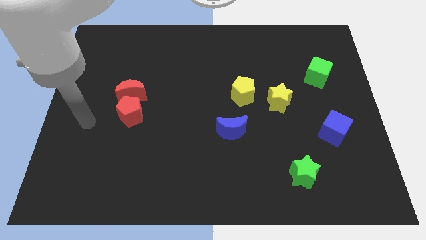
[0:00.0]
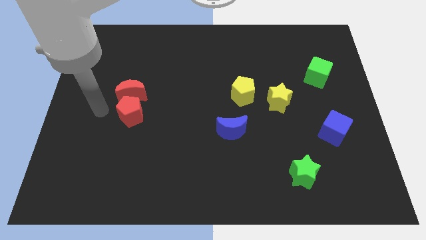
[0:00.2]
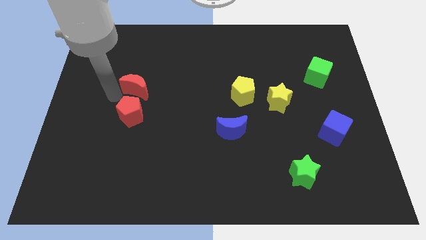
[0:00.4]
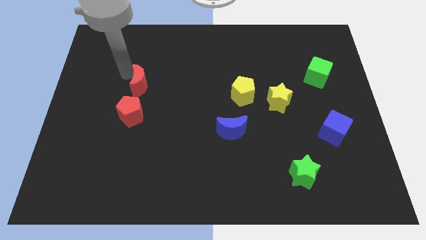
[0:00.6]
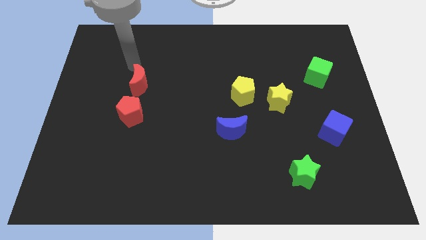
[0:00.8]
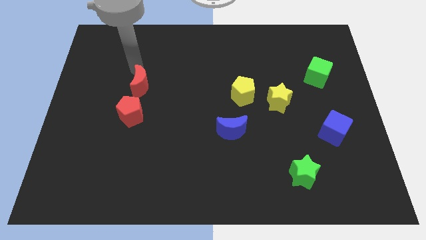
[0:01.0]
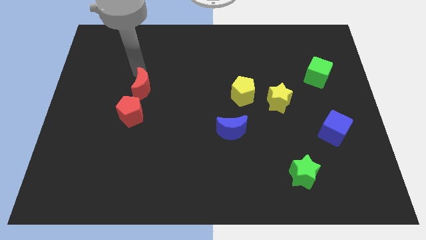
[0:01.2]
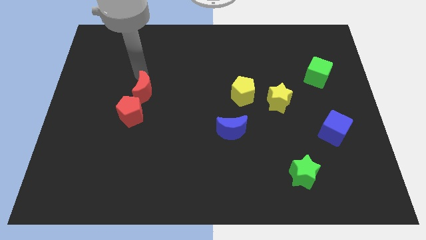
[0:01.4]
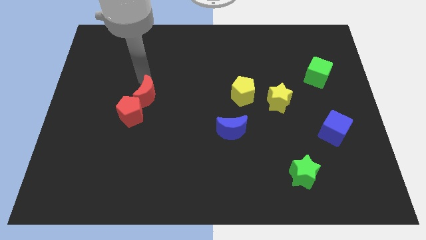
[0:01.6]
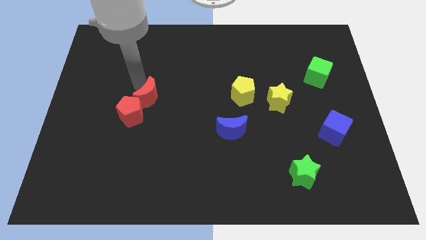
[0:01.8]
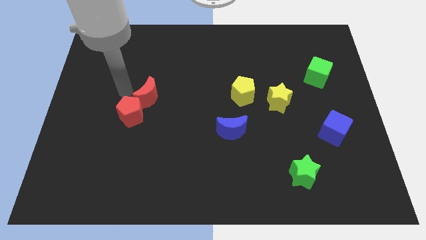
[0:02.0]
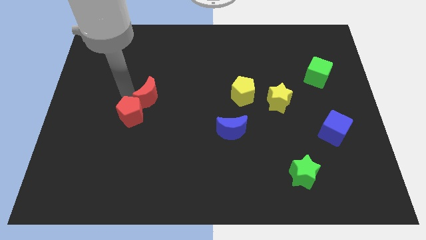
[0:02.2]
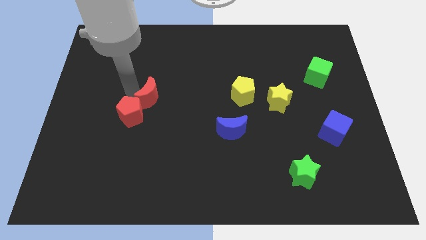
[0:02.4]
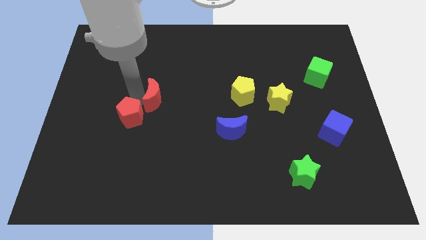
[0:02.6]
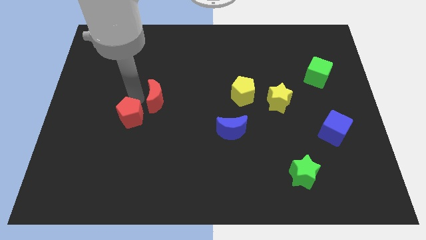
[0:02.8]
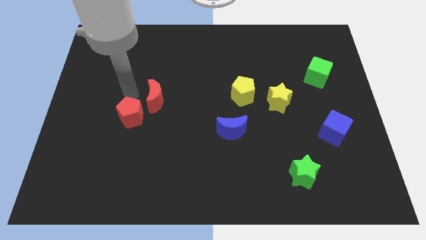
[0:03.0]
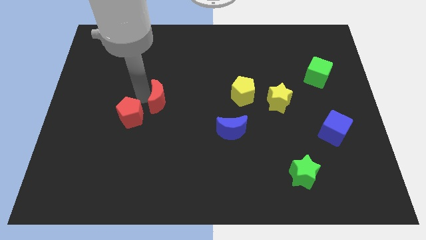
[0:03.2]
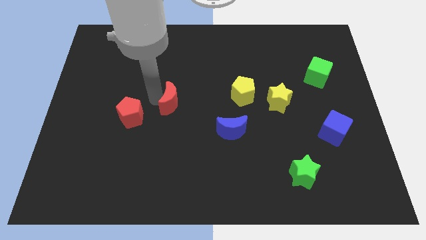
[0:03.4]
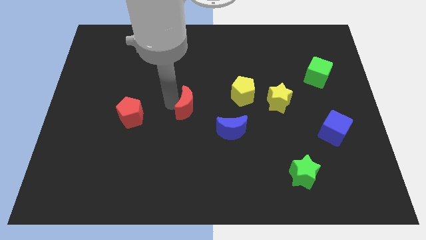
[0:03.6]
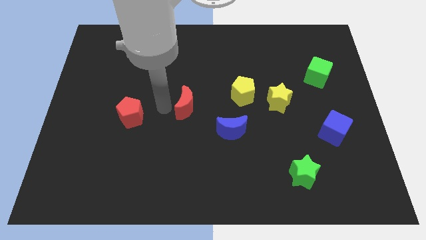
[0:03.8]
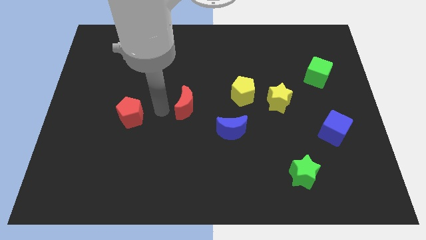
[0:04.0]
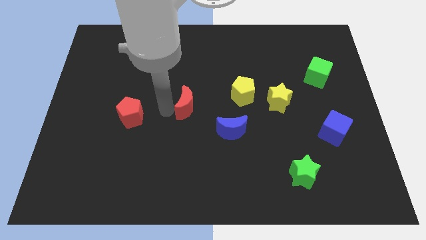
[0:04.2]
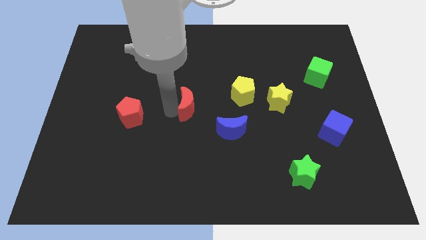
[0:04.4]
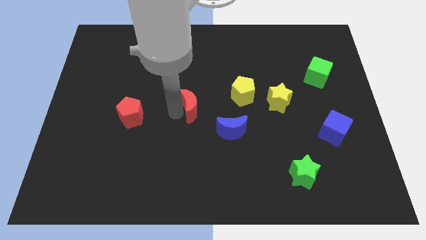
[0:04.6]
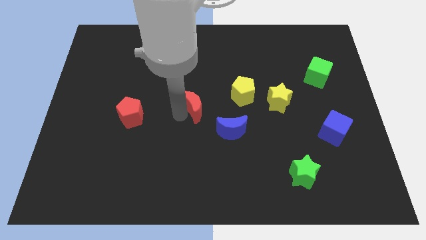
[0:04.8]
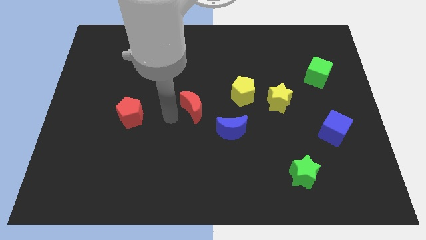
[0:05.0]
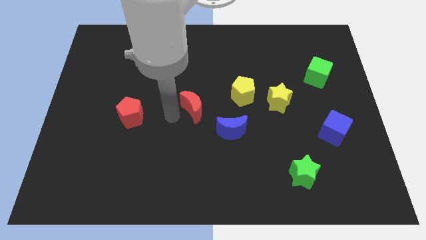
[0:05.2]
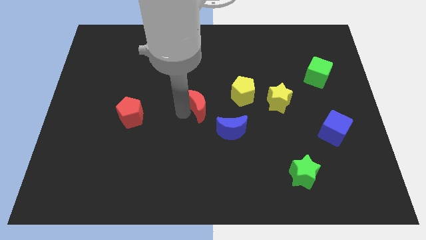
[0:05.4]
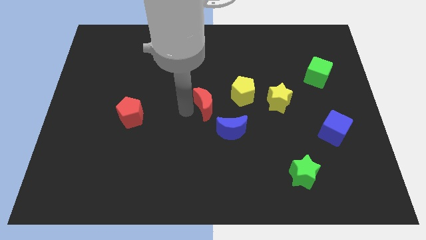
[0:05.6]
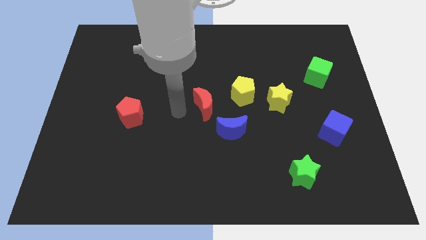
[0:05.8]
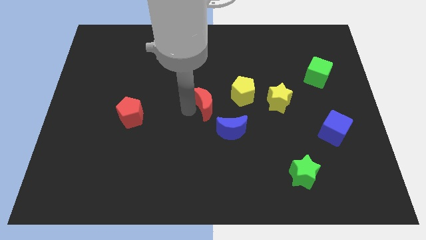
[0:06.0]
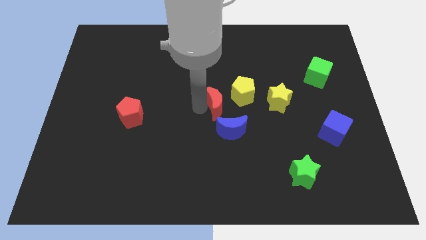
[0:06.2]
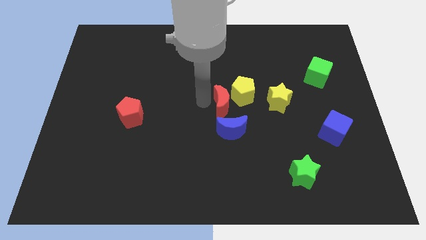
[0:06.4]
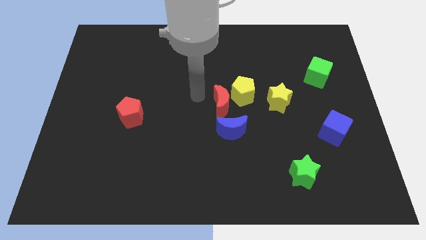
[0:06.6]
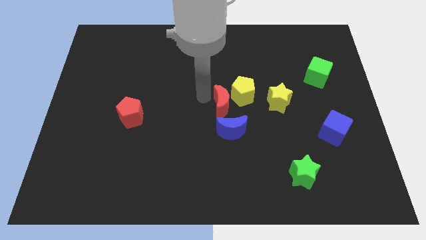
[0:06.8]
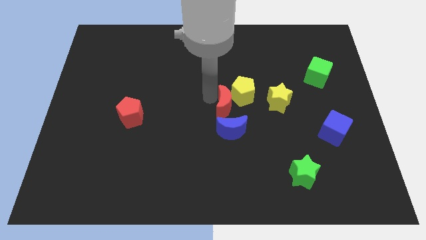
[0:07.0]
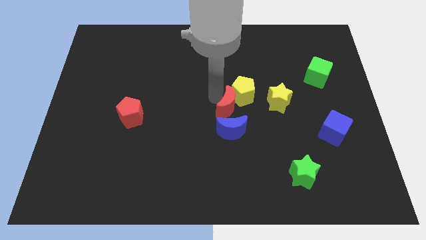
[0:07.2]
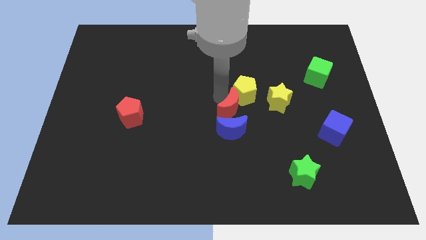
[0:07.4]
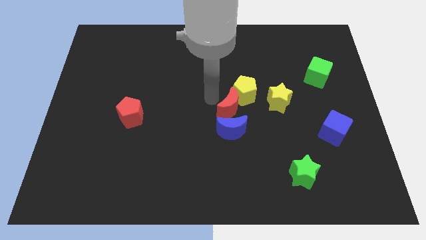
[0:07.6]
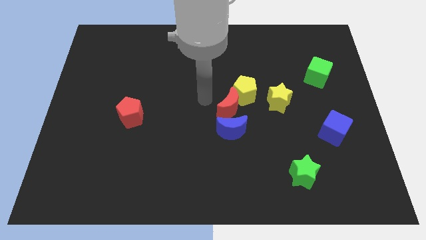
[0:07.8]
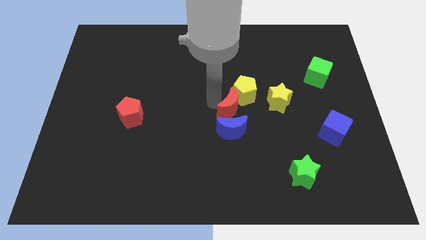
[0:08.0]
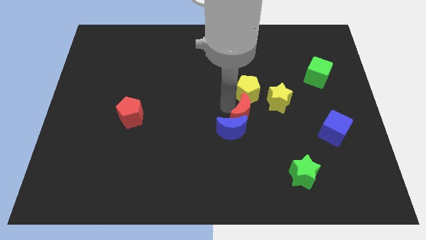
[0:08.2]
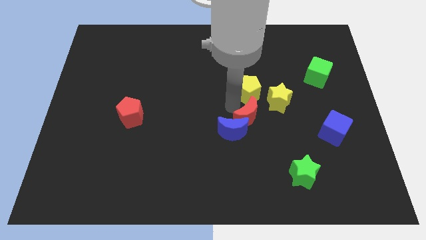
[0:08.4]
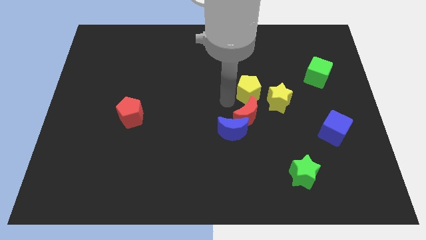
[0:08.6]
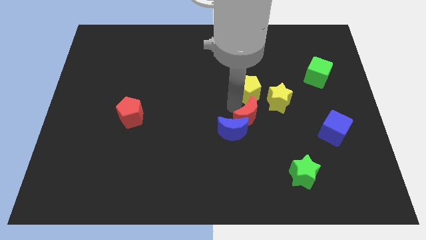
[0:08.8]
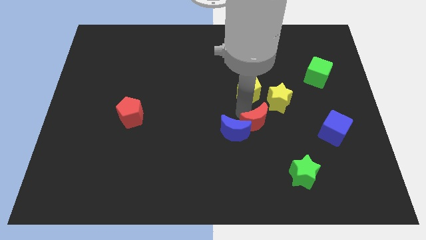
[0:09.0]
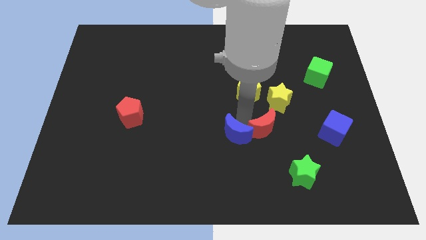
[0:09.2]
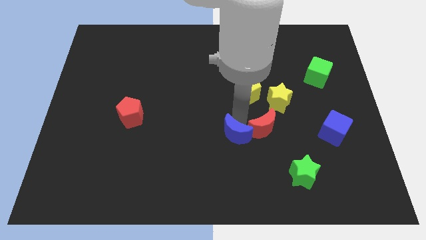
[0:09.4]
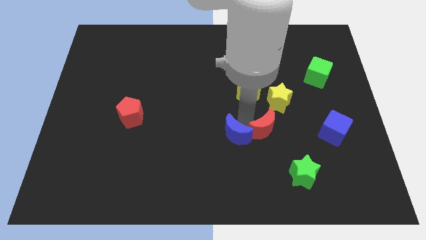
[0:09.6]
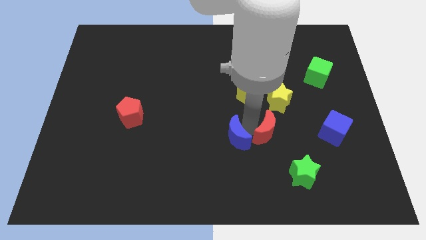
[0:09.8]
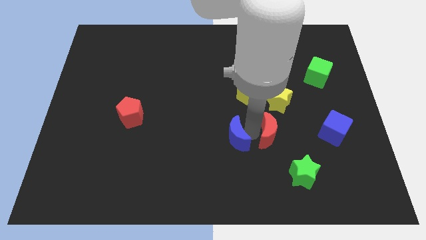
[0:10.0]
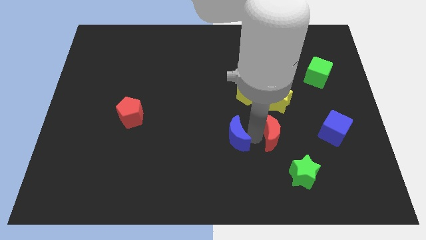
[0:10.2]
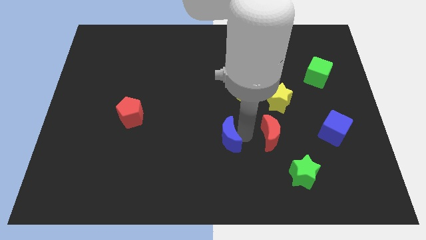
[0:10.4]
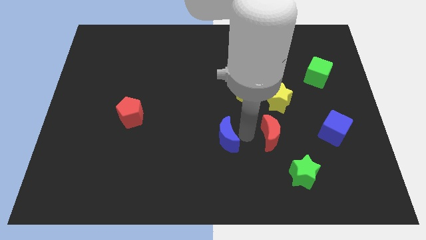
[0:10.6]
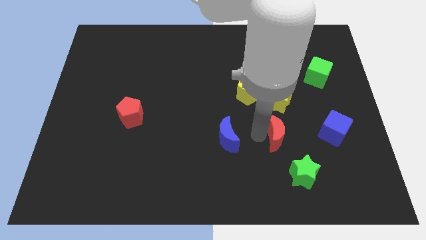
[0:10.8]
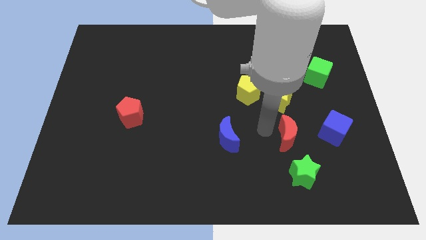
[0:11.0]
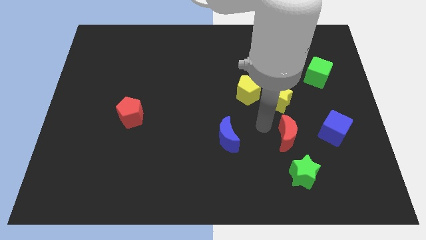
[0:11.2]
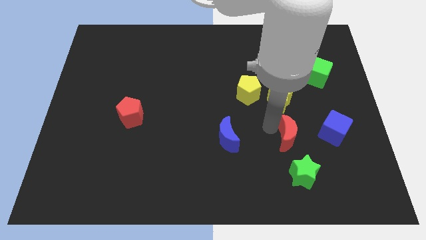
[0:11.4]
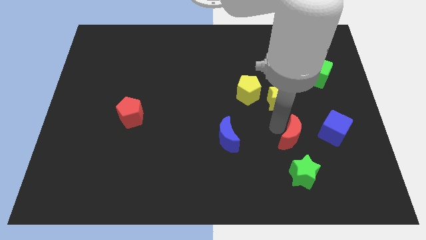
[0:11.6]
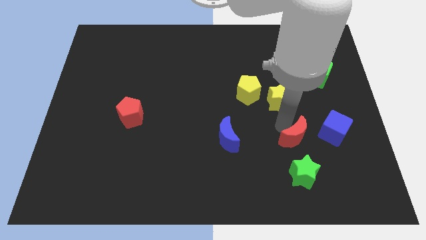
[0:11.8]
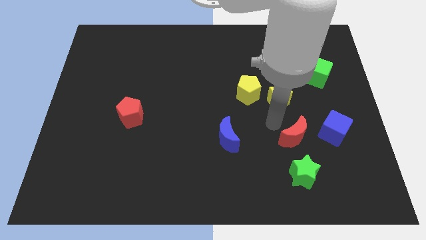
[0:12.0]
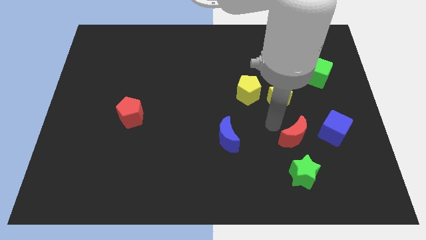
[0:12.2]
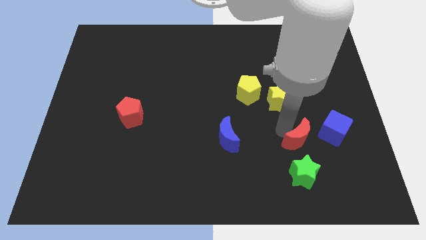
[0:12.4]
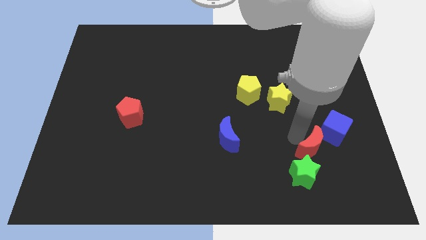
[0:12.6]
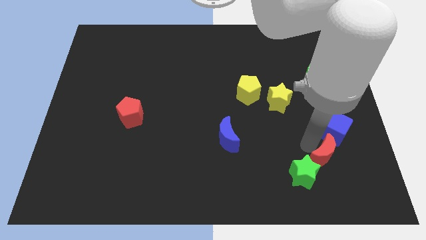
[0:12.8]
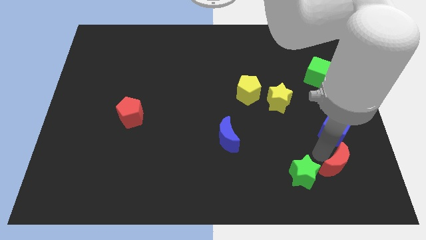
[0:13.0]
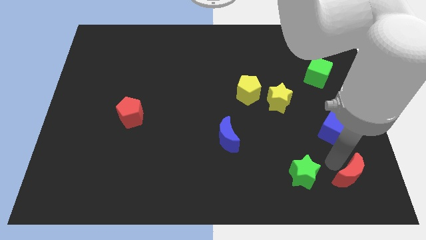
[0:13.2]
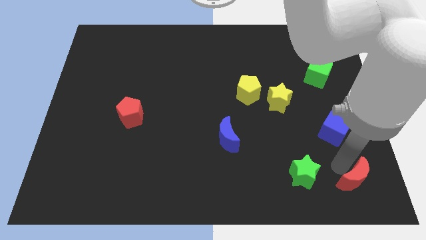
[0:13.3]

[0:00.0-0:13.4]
slide the red moon to the bottom right corner

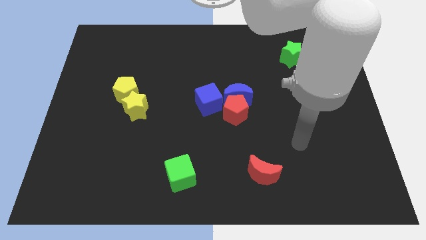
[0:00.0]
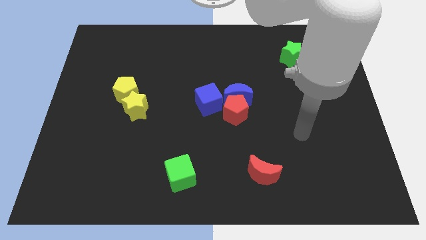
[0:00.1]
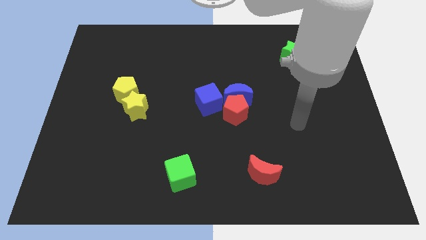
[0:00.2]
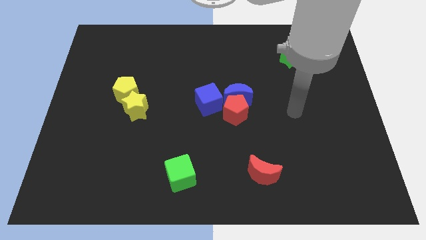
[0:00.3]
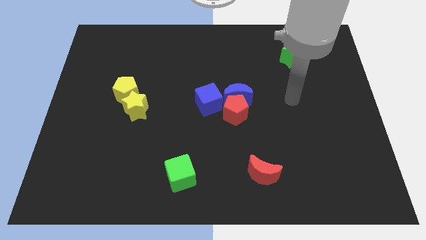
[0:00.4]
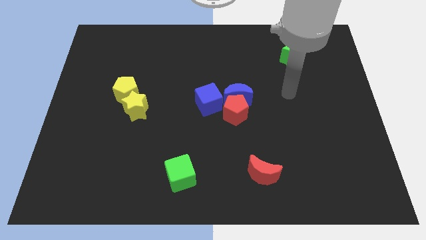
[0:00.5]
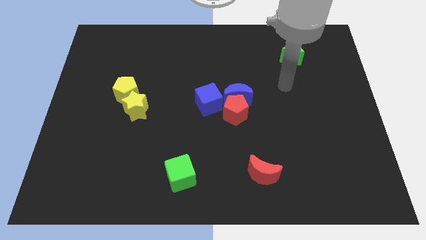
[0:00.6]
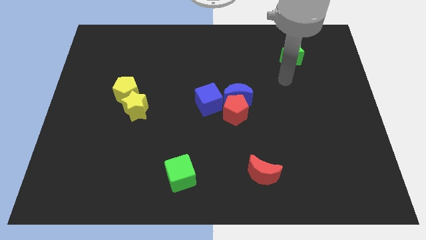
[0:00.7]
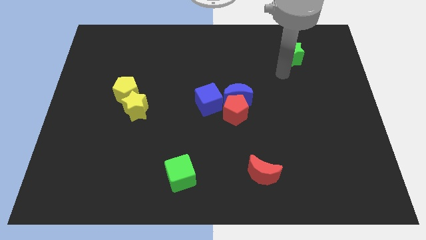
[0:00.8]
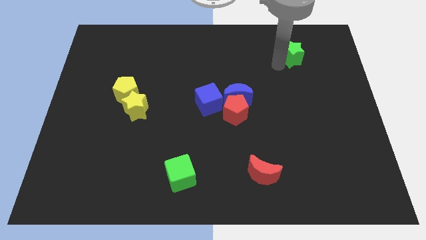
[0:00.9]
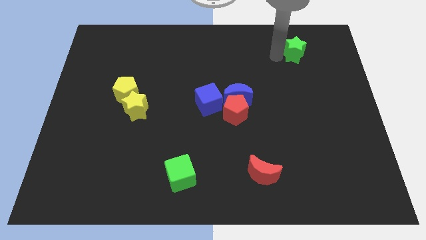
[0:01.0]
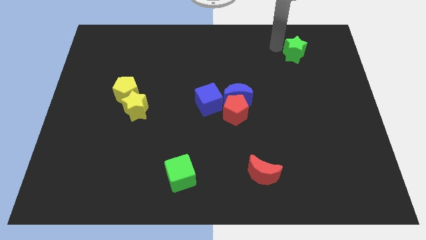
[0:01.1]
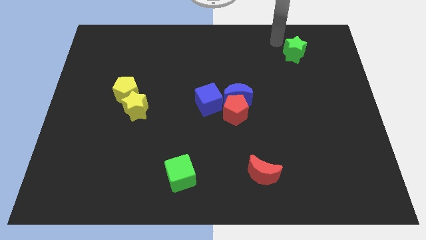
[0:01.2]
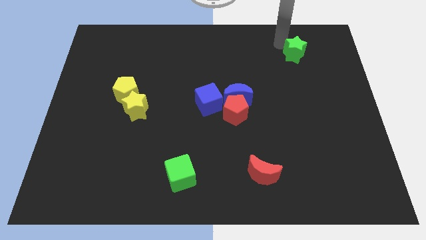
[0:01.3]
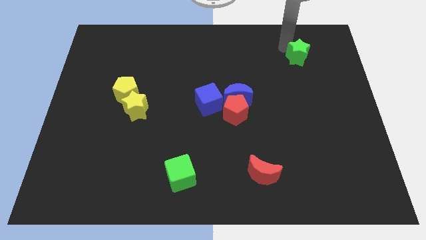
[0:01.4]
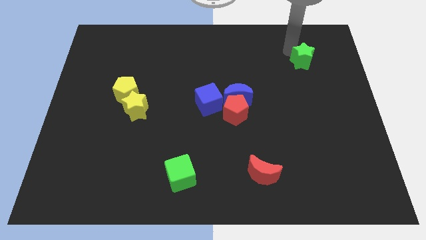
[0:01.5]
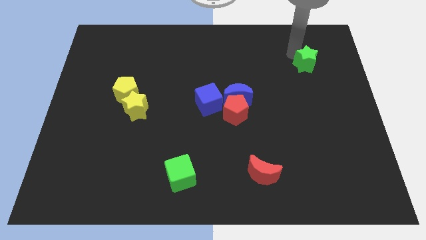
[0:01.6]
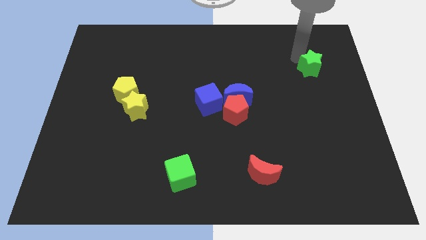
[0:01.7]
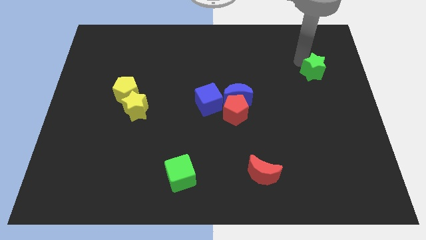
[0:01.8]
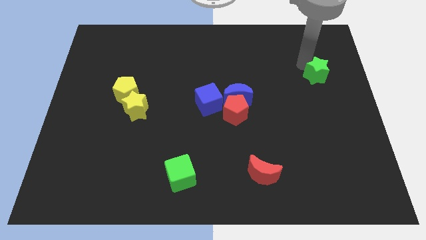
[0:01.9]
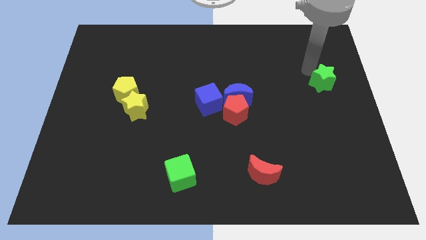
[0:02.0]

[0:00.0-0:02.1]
put the green star to the right side of the board
